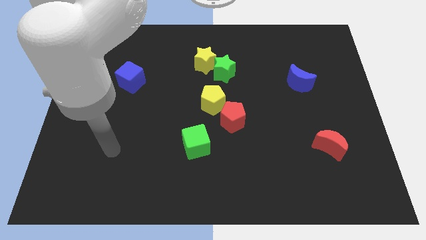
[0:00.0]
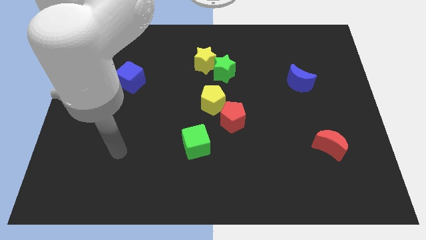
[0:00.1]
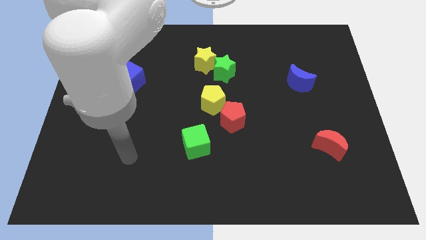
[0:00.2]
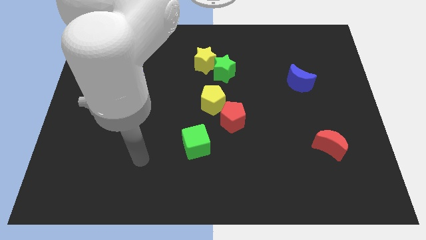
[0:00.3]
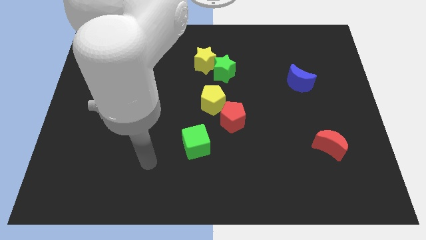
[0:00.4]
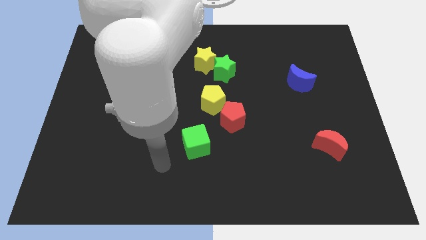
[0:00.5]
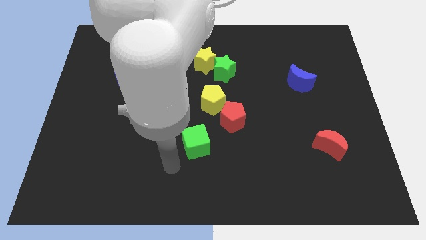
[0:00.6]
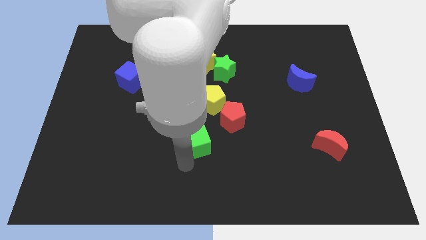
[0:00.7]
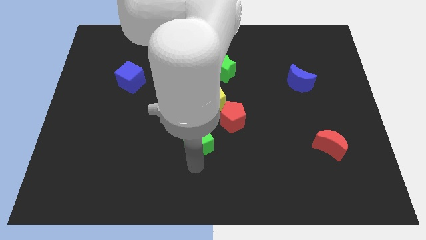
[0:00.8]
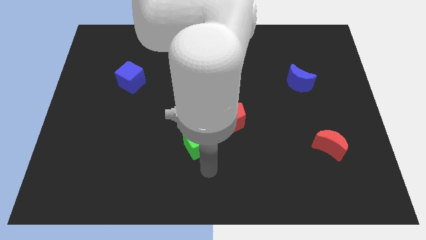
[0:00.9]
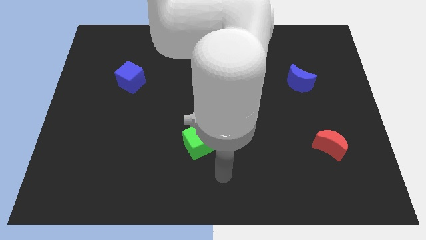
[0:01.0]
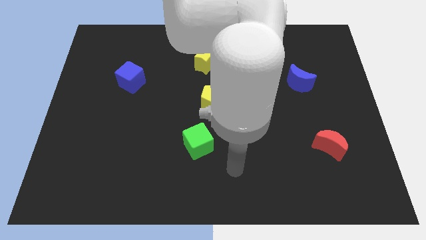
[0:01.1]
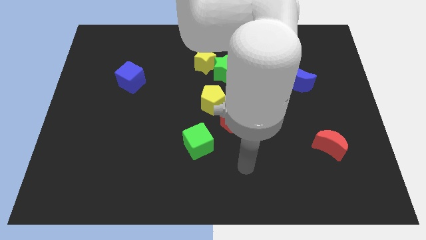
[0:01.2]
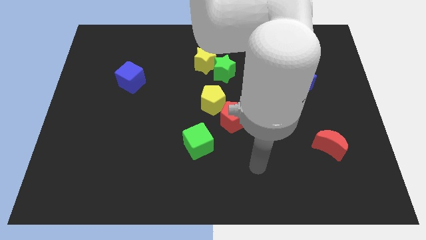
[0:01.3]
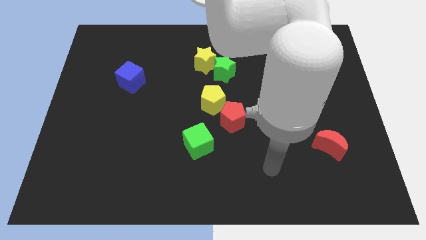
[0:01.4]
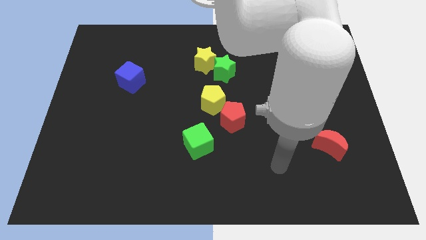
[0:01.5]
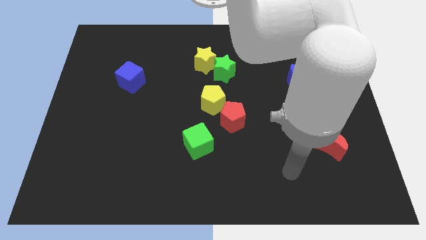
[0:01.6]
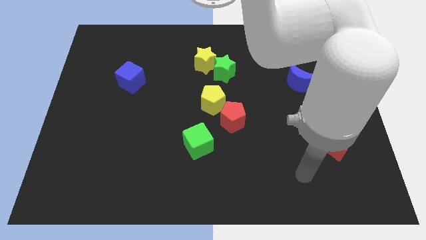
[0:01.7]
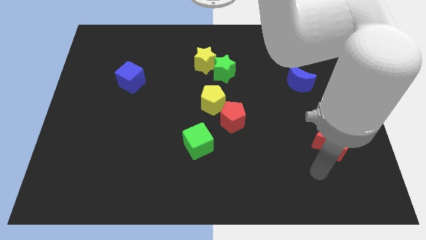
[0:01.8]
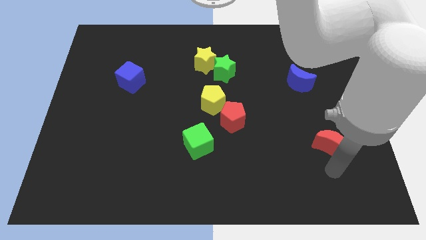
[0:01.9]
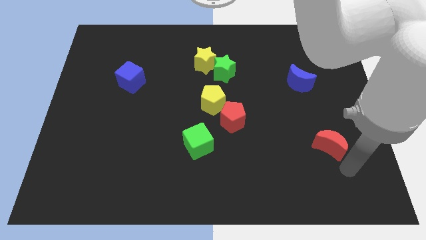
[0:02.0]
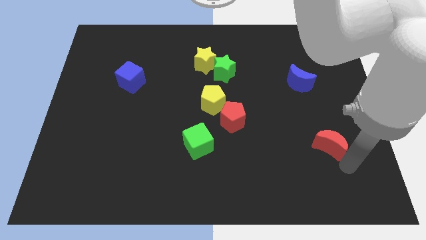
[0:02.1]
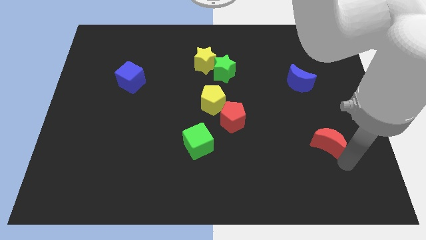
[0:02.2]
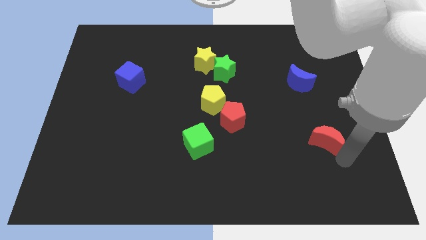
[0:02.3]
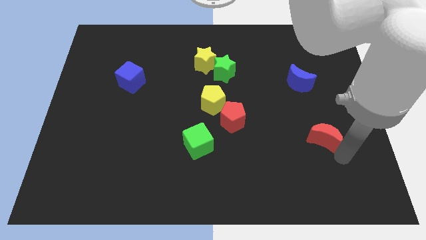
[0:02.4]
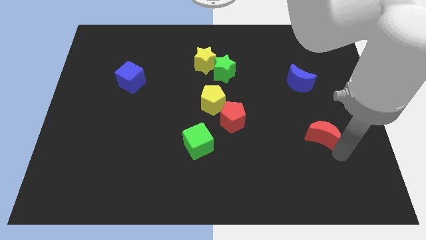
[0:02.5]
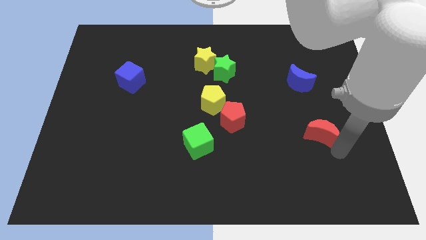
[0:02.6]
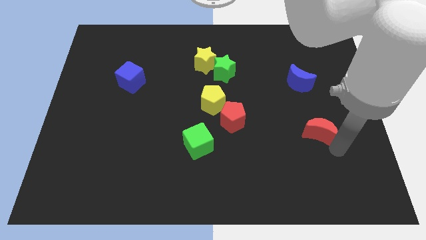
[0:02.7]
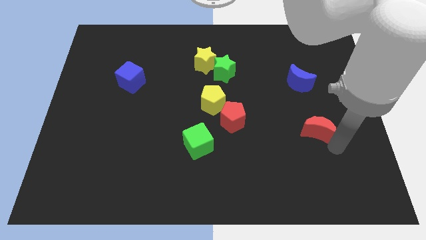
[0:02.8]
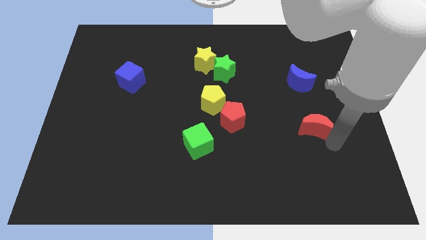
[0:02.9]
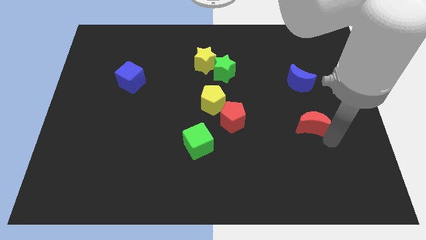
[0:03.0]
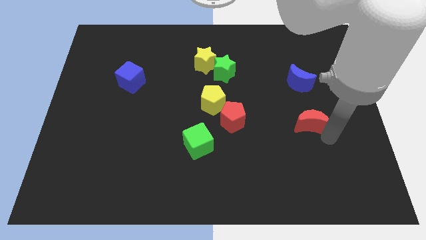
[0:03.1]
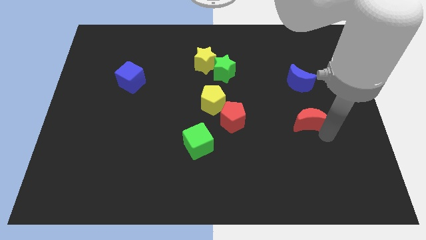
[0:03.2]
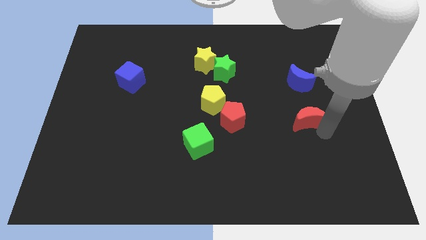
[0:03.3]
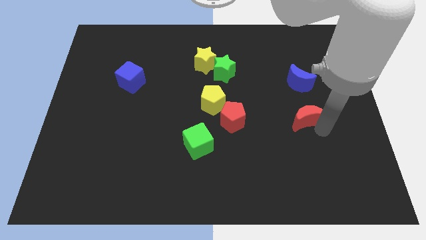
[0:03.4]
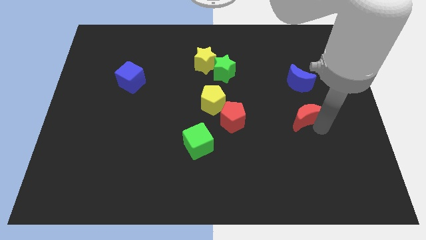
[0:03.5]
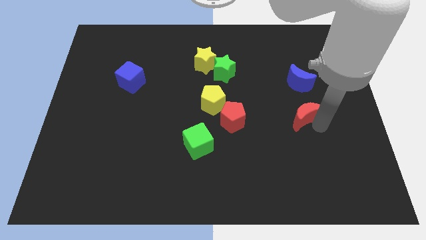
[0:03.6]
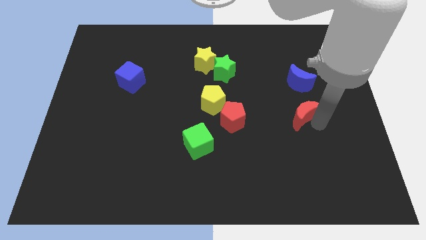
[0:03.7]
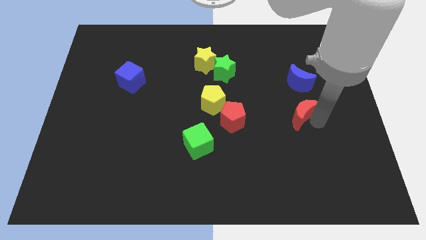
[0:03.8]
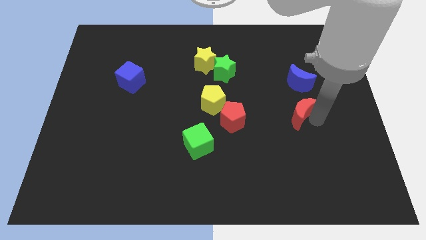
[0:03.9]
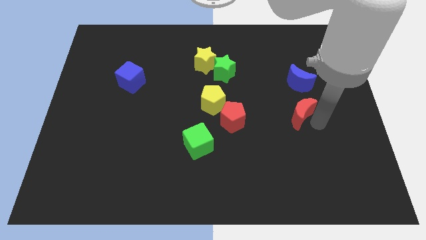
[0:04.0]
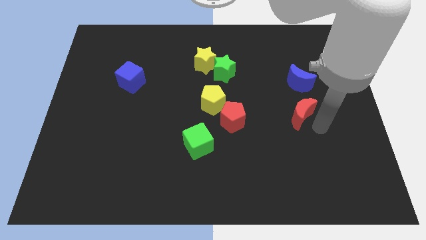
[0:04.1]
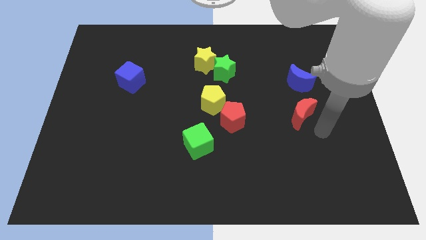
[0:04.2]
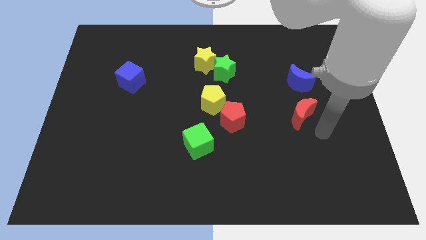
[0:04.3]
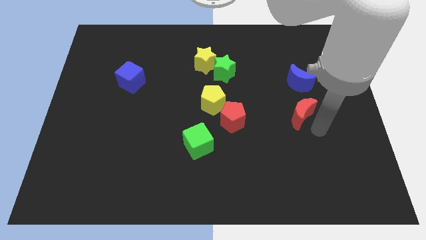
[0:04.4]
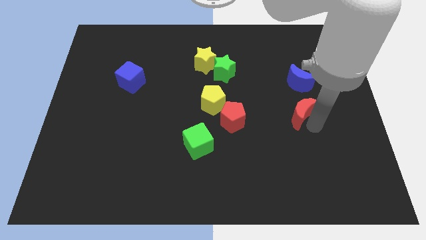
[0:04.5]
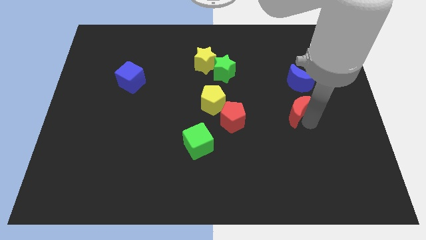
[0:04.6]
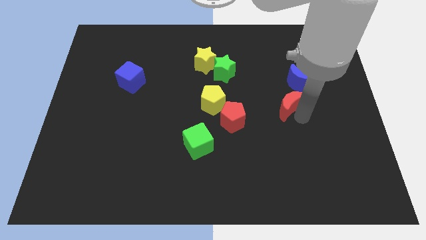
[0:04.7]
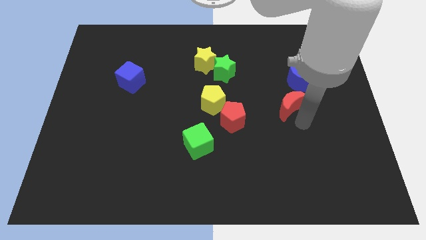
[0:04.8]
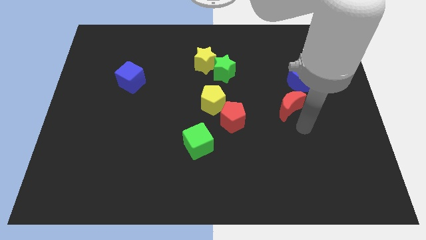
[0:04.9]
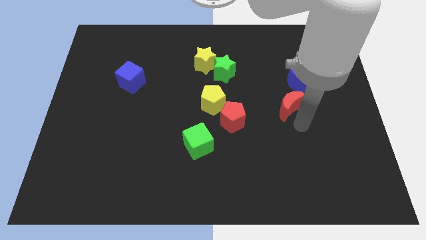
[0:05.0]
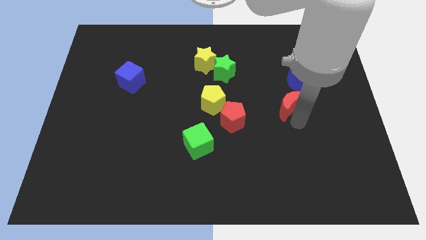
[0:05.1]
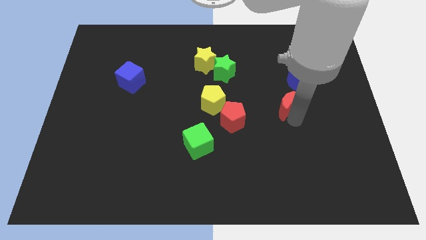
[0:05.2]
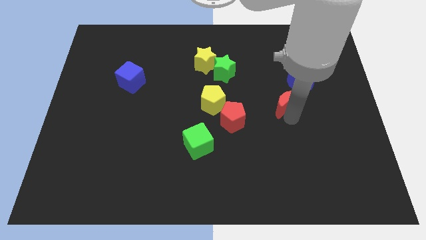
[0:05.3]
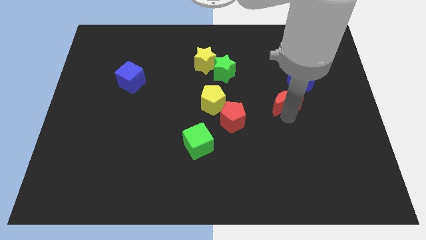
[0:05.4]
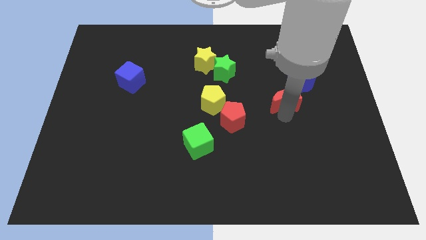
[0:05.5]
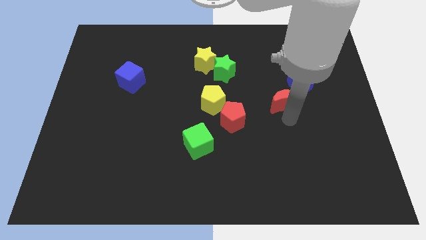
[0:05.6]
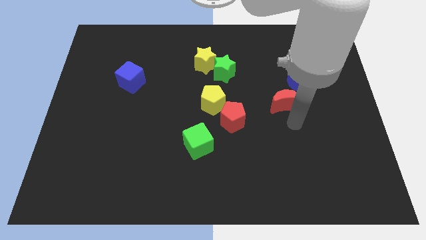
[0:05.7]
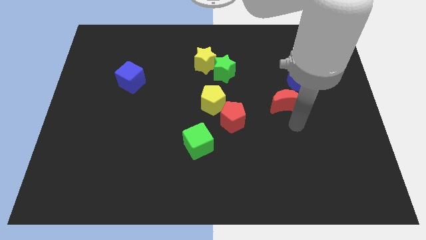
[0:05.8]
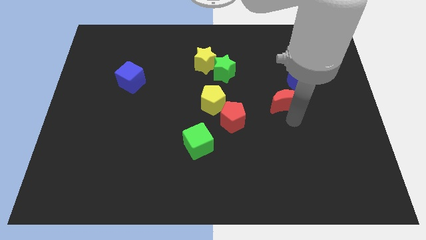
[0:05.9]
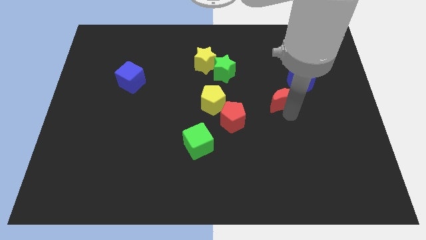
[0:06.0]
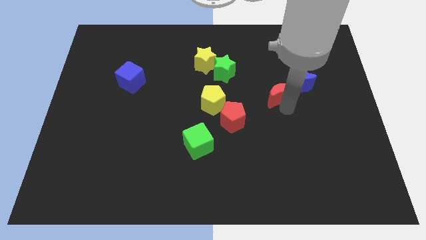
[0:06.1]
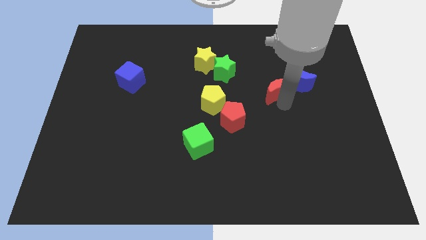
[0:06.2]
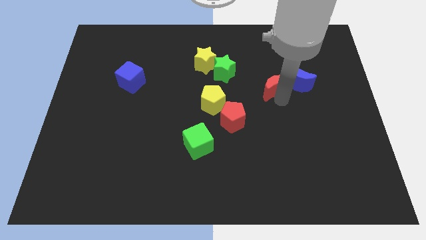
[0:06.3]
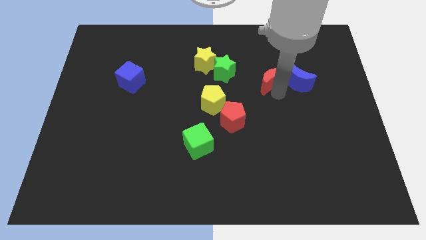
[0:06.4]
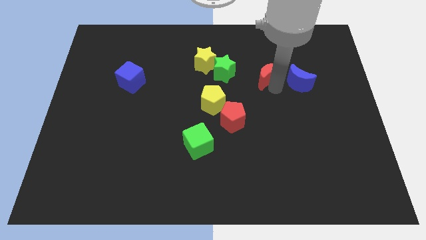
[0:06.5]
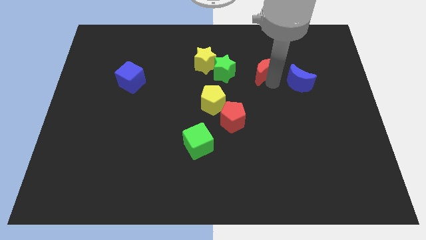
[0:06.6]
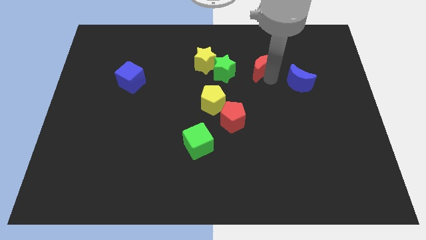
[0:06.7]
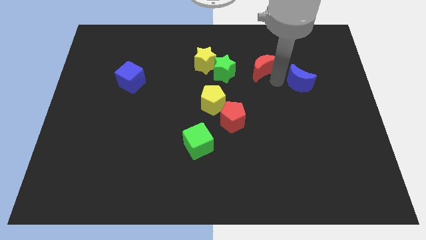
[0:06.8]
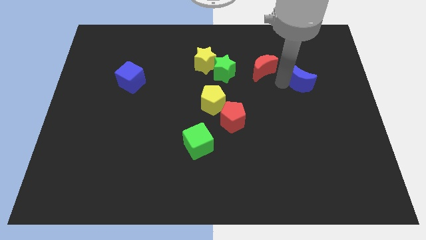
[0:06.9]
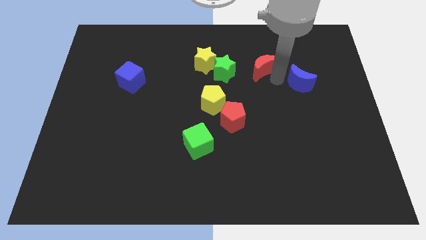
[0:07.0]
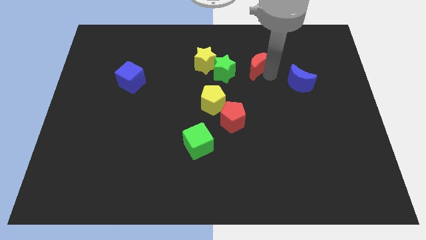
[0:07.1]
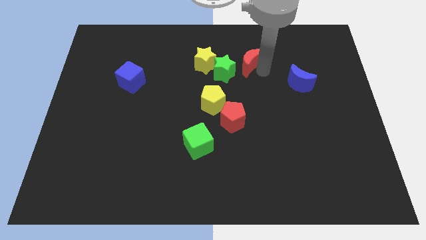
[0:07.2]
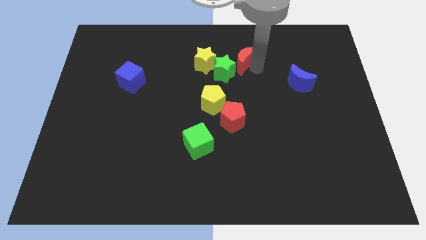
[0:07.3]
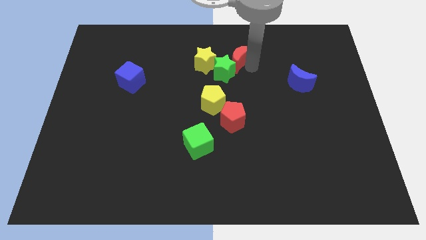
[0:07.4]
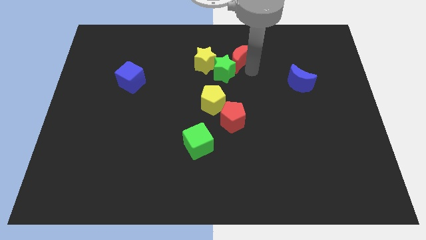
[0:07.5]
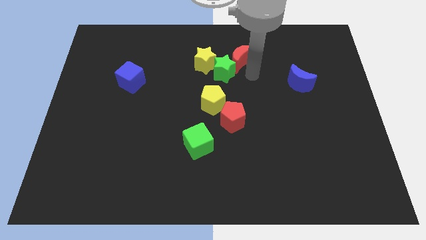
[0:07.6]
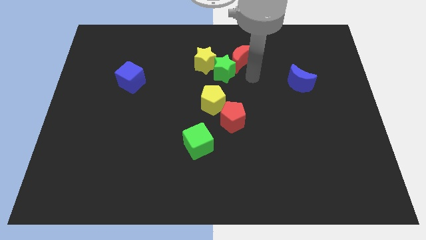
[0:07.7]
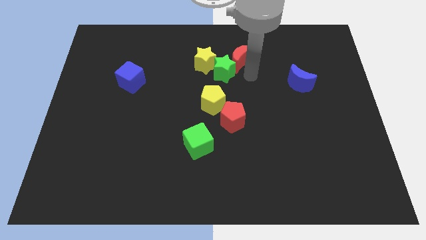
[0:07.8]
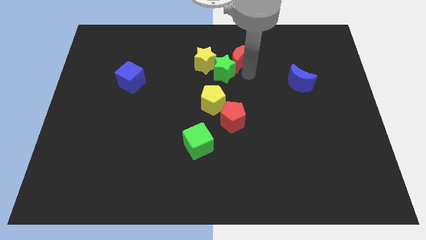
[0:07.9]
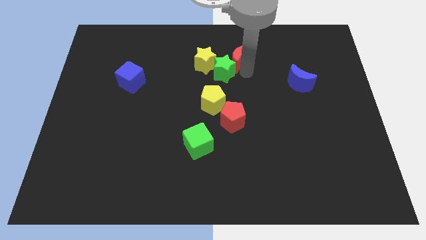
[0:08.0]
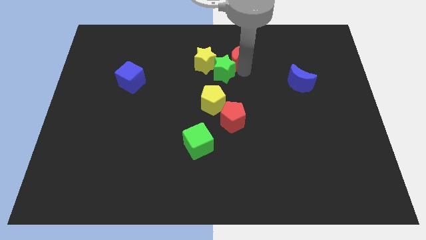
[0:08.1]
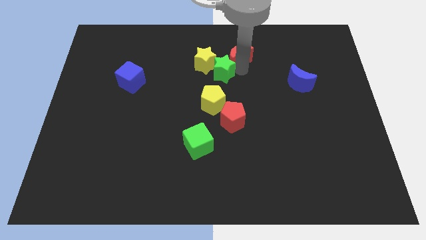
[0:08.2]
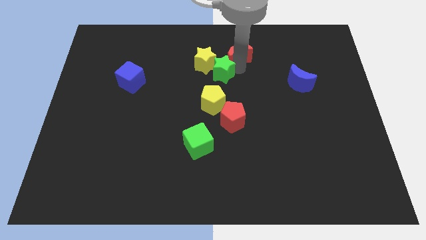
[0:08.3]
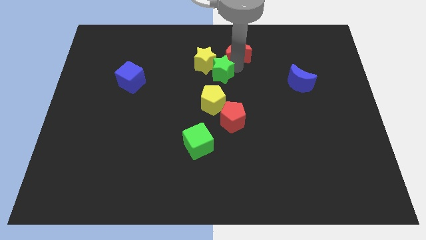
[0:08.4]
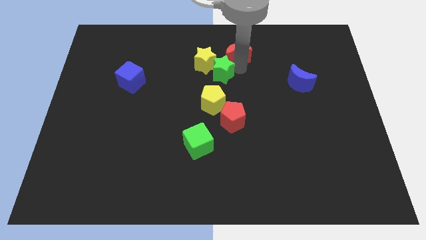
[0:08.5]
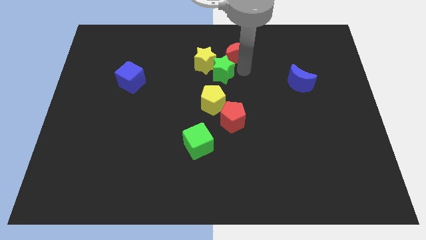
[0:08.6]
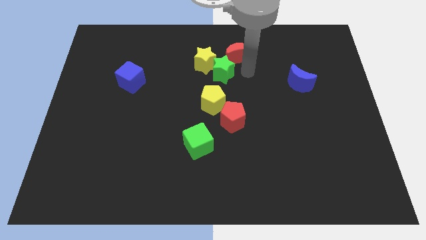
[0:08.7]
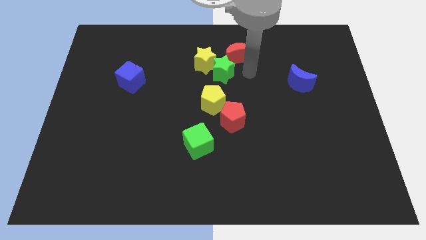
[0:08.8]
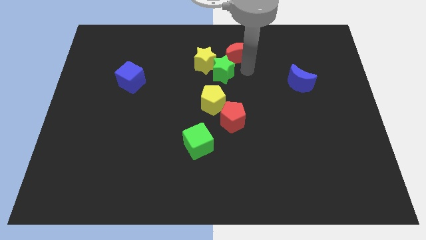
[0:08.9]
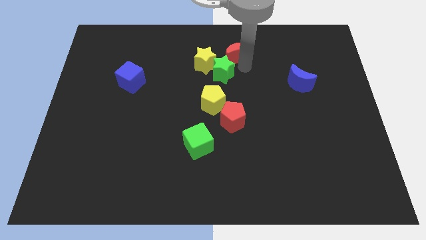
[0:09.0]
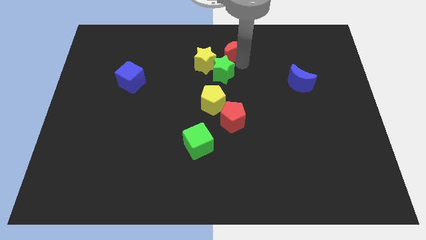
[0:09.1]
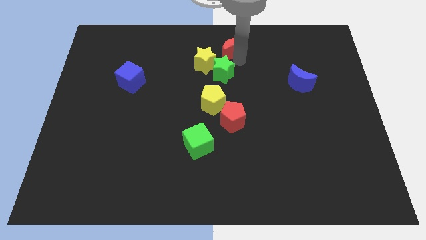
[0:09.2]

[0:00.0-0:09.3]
slide the red moon to the top side
